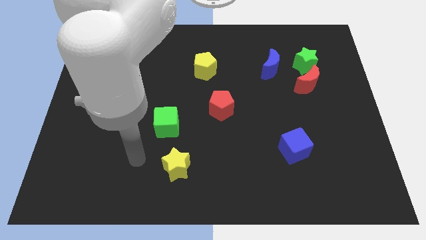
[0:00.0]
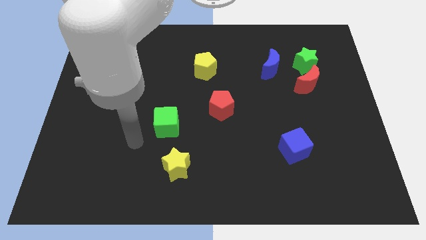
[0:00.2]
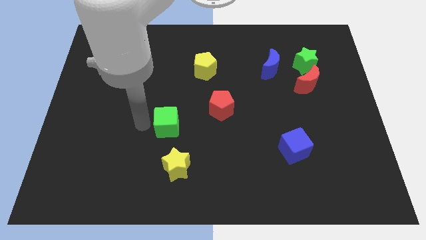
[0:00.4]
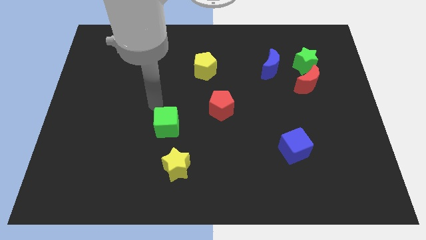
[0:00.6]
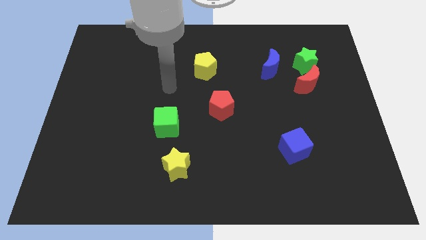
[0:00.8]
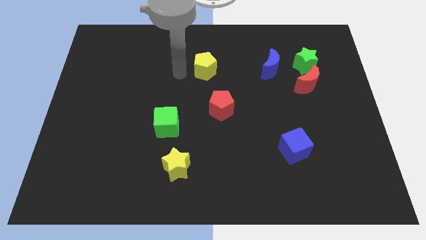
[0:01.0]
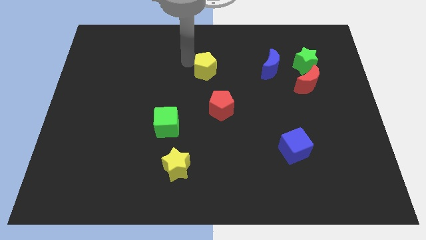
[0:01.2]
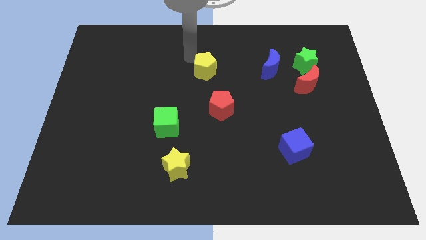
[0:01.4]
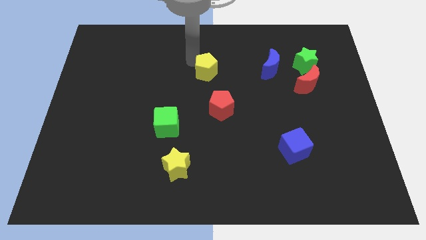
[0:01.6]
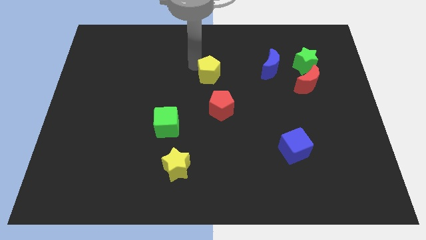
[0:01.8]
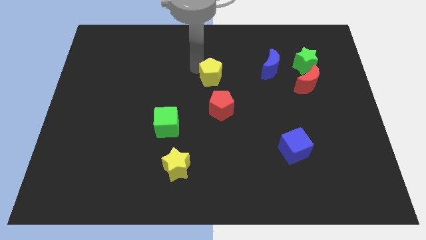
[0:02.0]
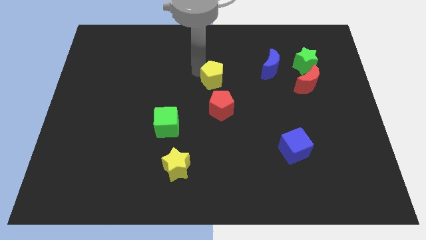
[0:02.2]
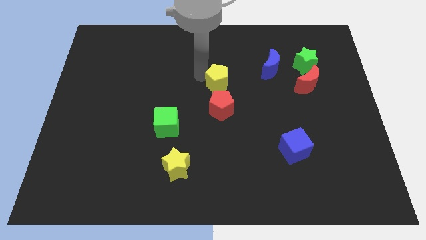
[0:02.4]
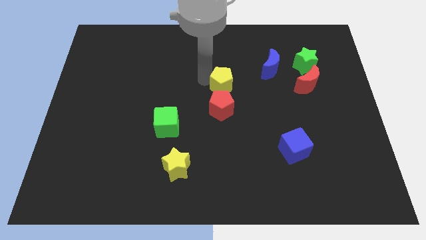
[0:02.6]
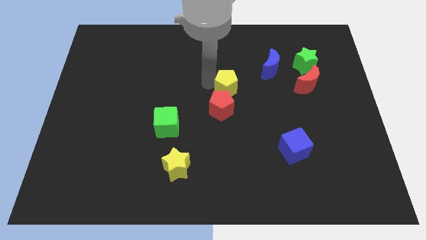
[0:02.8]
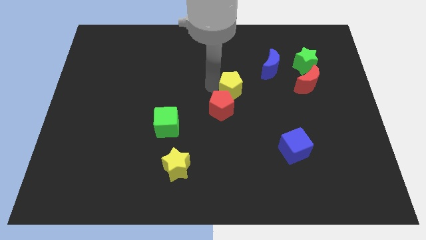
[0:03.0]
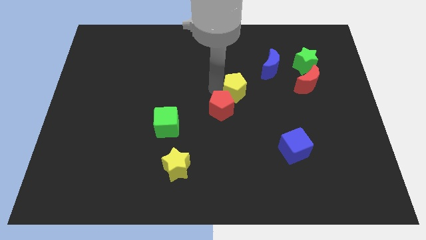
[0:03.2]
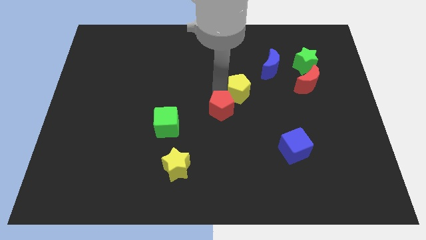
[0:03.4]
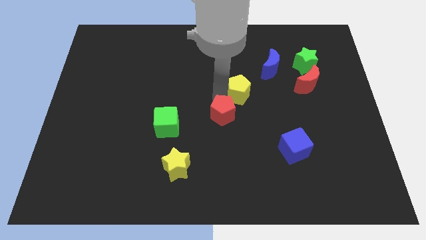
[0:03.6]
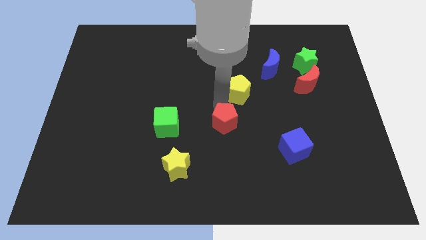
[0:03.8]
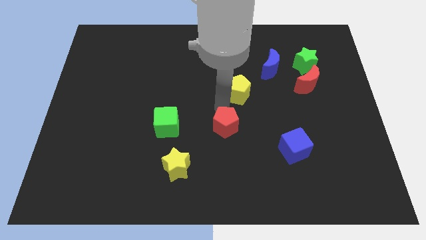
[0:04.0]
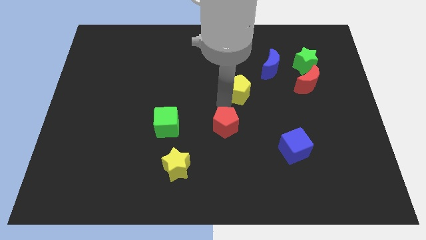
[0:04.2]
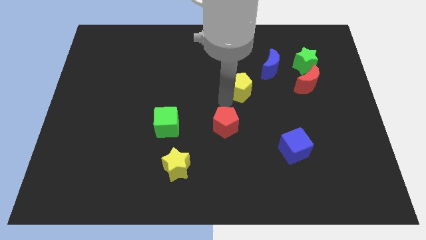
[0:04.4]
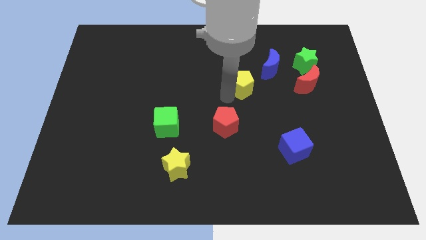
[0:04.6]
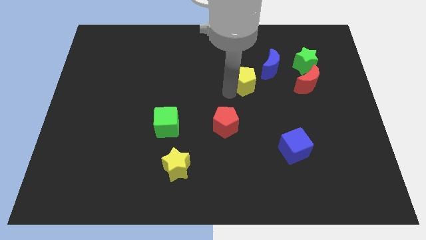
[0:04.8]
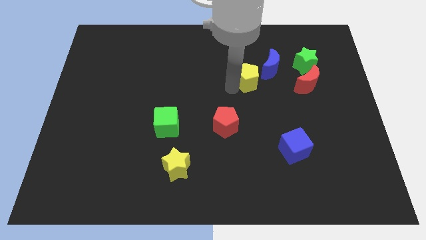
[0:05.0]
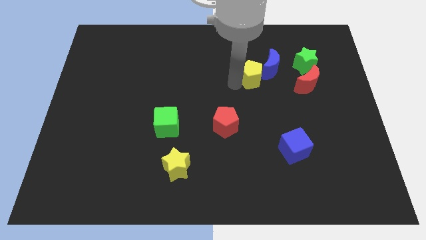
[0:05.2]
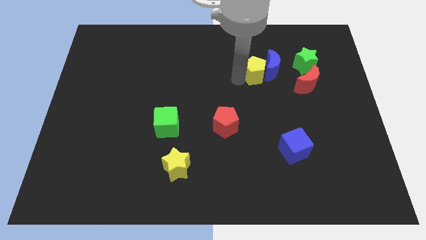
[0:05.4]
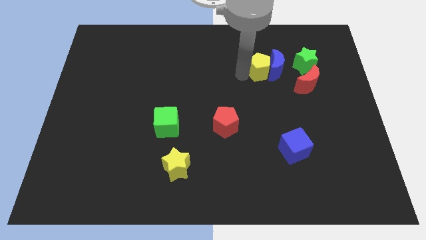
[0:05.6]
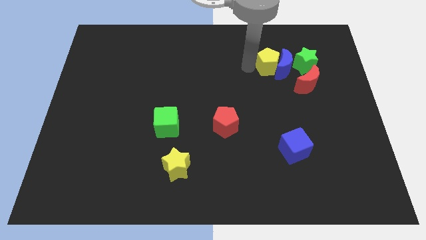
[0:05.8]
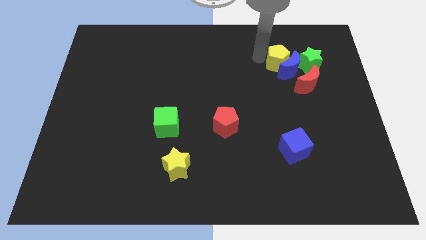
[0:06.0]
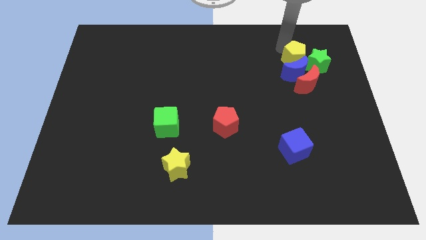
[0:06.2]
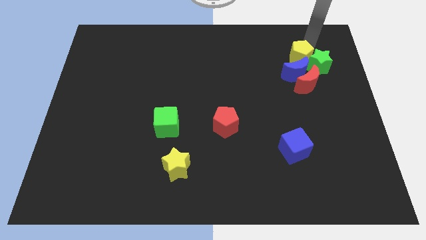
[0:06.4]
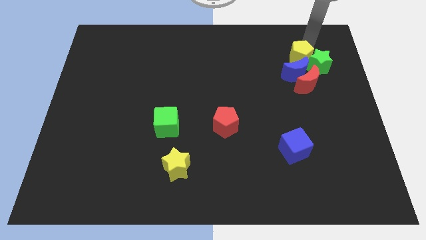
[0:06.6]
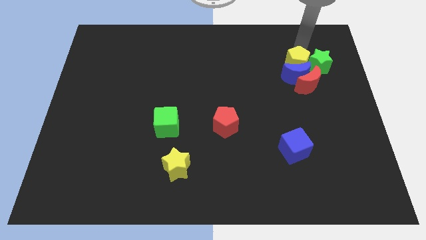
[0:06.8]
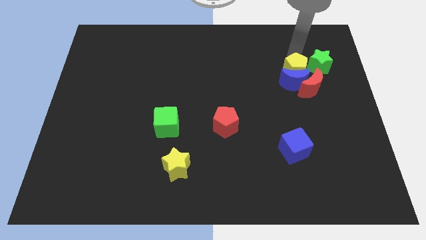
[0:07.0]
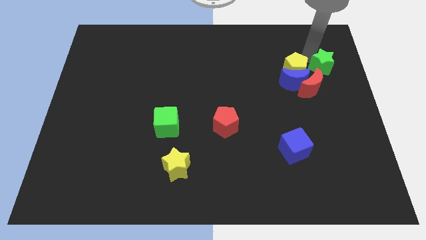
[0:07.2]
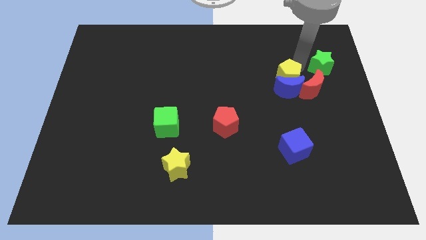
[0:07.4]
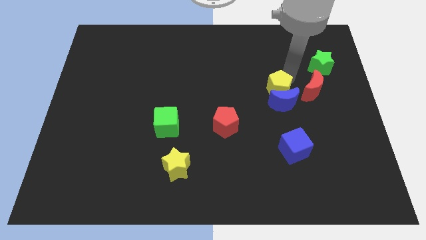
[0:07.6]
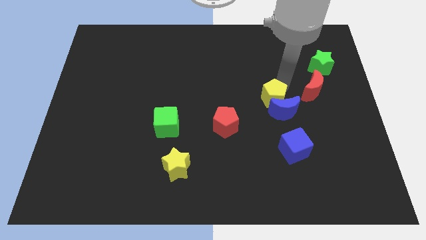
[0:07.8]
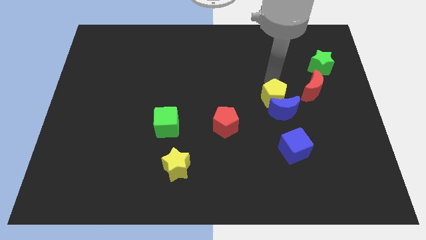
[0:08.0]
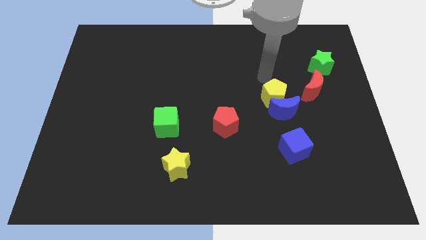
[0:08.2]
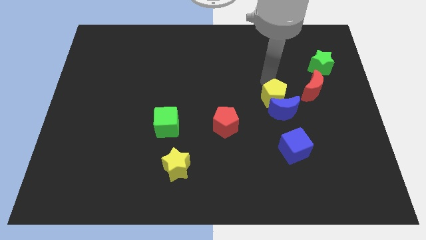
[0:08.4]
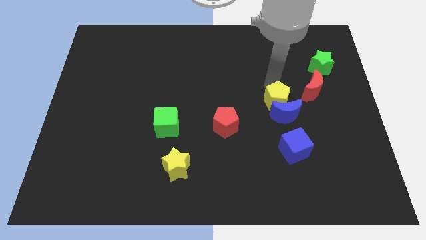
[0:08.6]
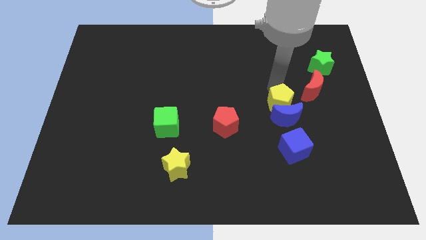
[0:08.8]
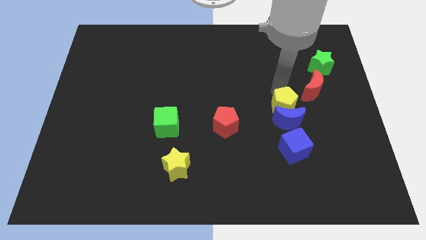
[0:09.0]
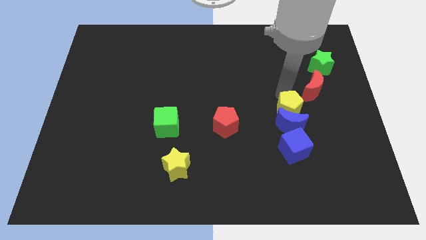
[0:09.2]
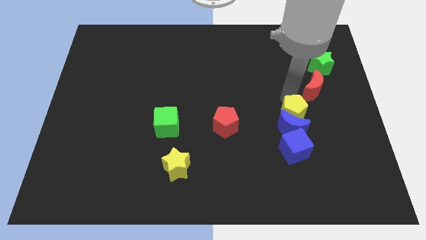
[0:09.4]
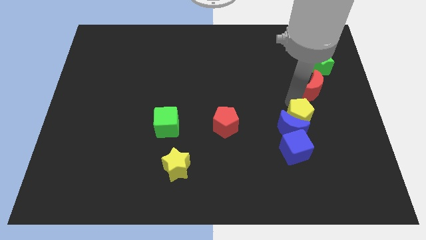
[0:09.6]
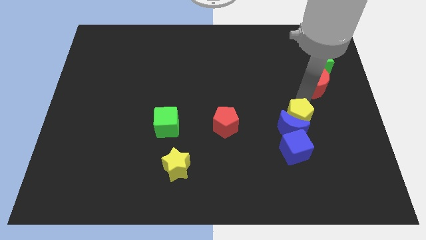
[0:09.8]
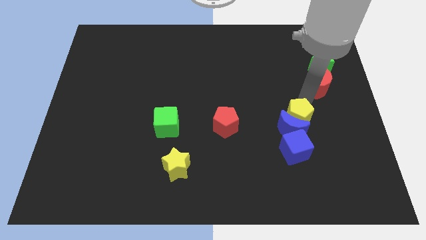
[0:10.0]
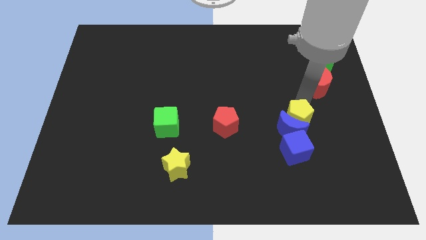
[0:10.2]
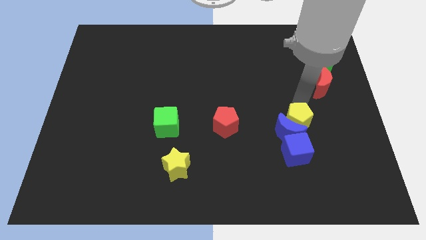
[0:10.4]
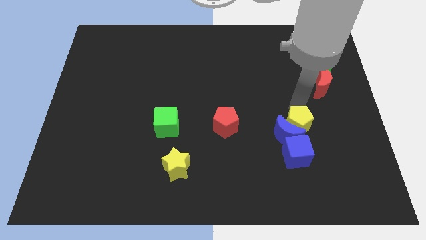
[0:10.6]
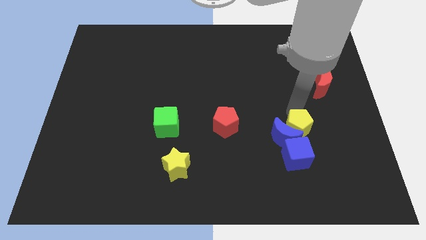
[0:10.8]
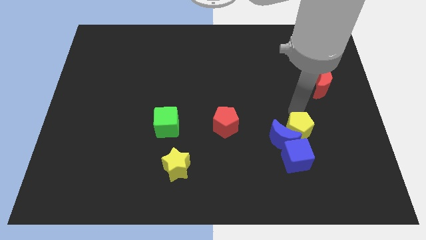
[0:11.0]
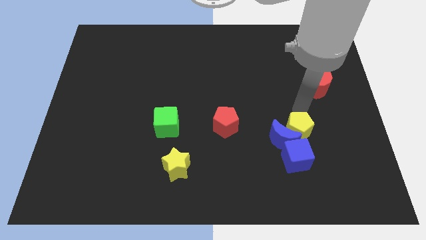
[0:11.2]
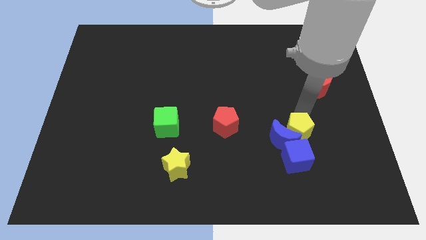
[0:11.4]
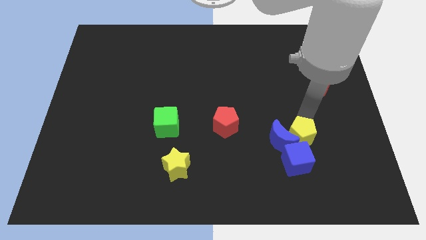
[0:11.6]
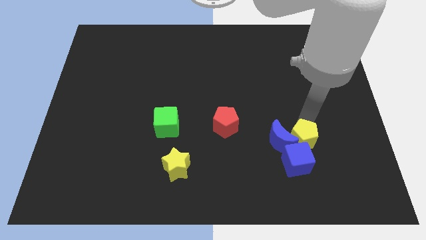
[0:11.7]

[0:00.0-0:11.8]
move the yellow pentagon to the blue cube

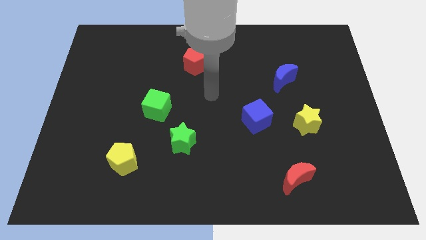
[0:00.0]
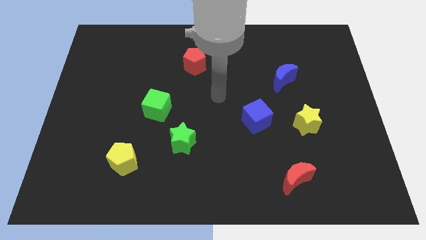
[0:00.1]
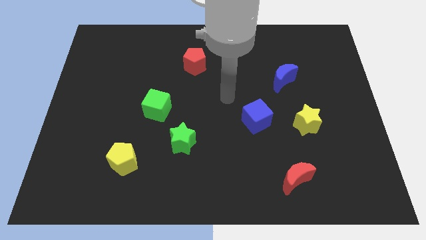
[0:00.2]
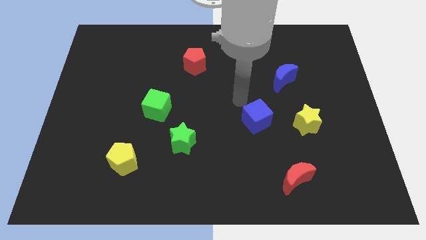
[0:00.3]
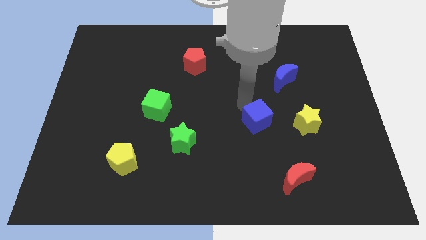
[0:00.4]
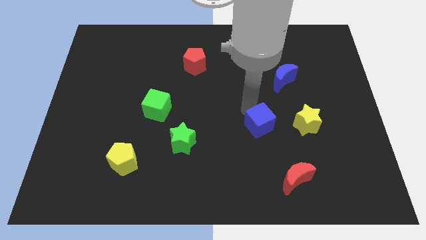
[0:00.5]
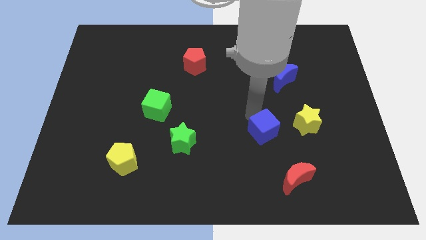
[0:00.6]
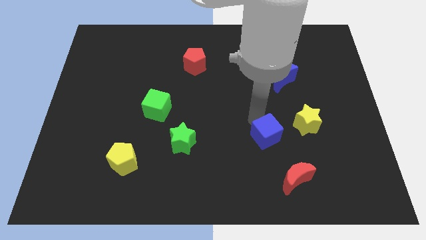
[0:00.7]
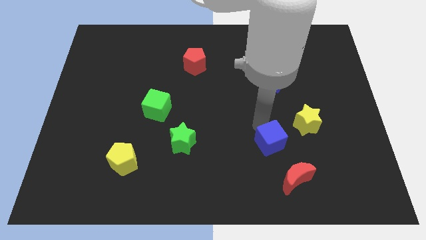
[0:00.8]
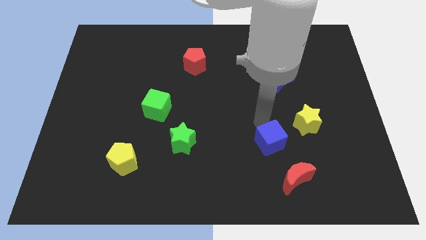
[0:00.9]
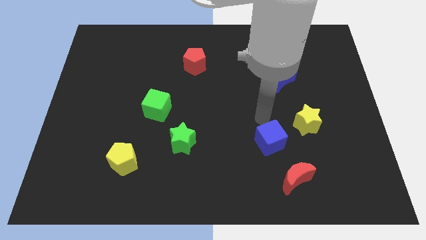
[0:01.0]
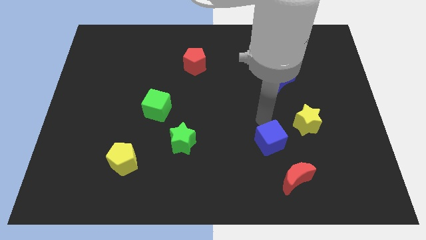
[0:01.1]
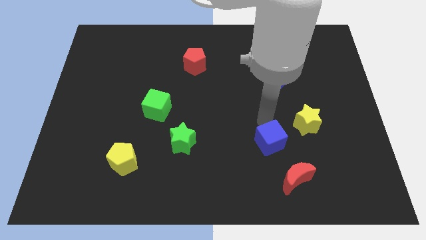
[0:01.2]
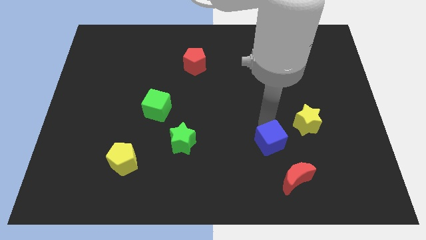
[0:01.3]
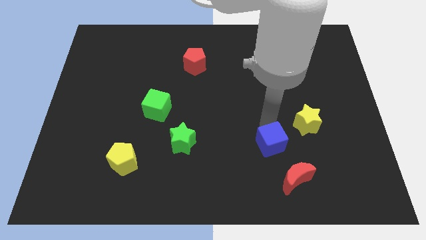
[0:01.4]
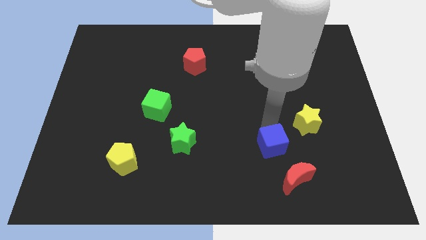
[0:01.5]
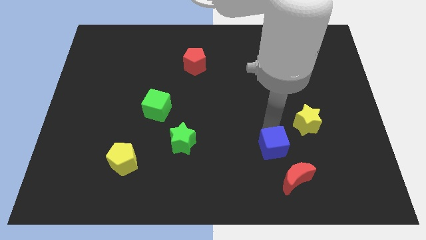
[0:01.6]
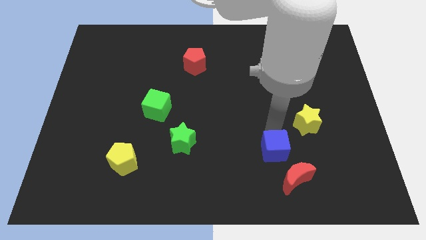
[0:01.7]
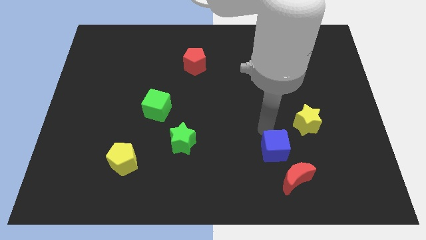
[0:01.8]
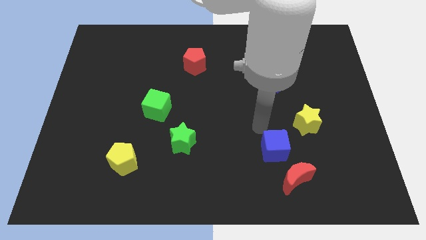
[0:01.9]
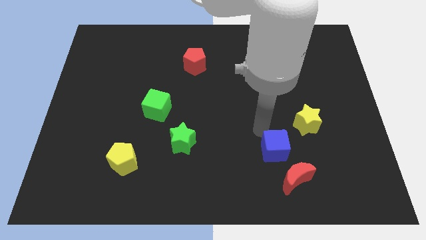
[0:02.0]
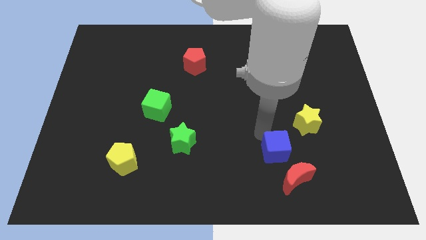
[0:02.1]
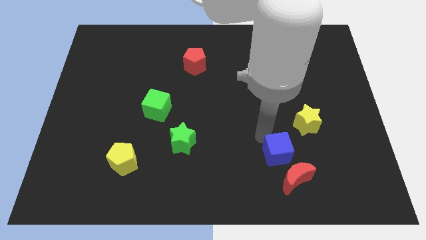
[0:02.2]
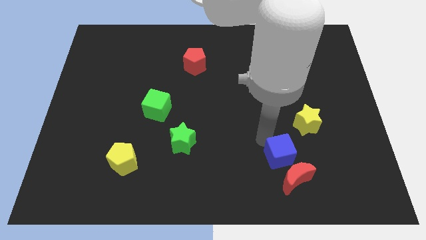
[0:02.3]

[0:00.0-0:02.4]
slide the blue cube next to the red moon
